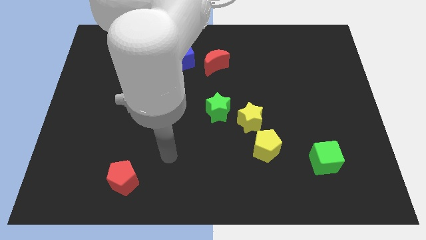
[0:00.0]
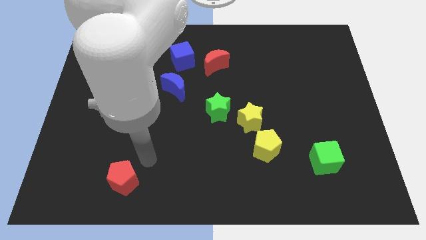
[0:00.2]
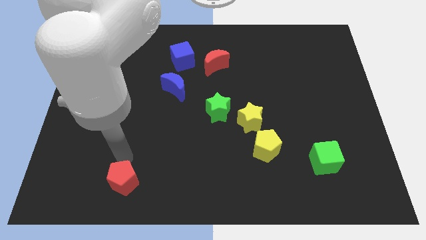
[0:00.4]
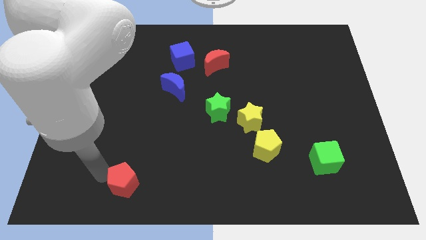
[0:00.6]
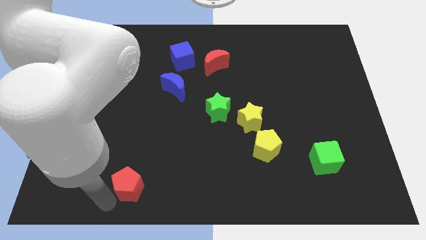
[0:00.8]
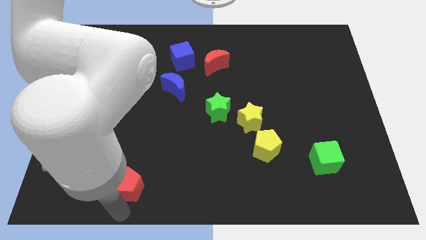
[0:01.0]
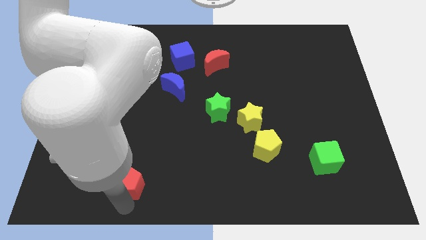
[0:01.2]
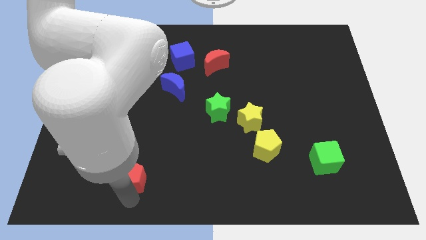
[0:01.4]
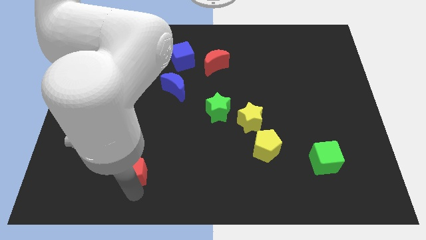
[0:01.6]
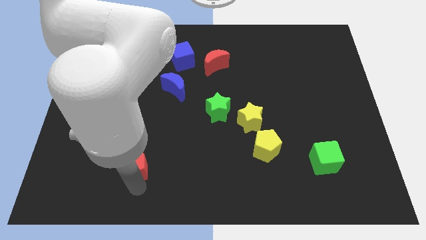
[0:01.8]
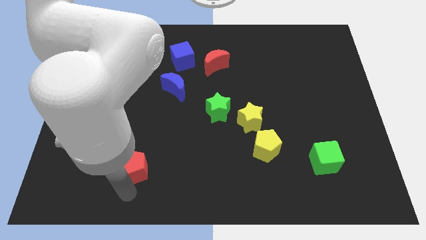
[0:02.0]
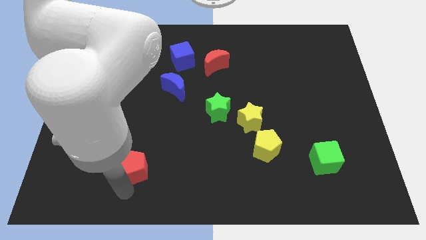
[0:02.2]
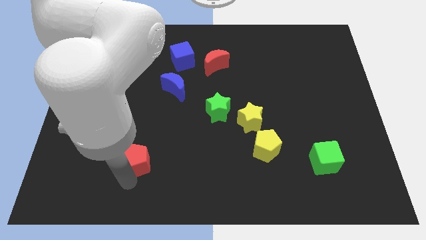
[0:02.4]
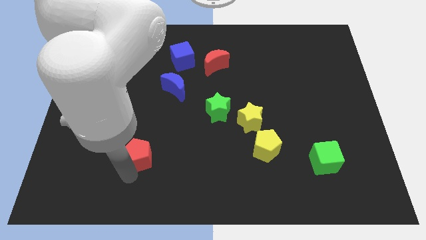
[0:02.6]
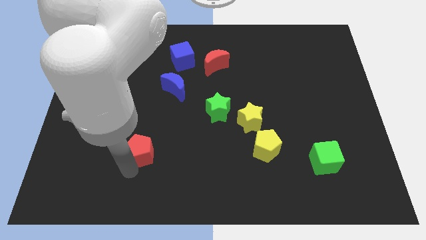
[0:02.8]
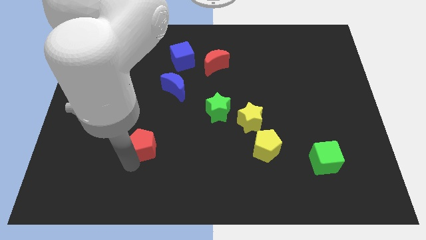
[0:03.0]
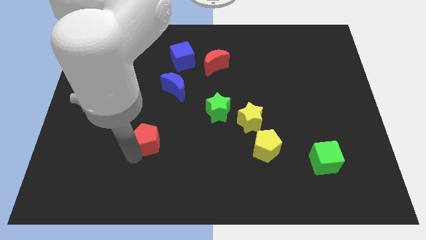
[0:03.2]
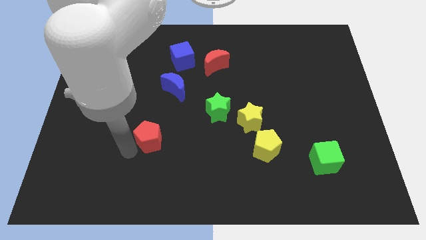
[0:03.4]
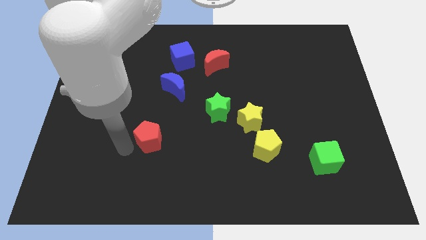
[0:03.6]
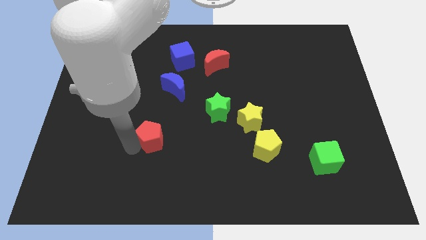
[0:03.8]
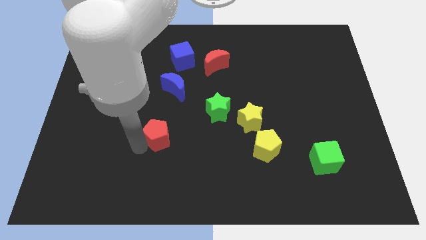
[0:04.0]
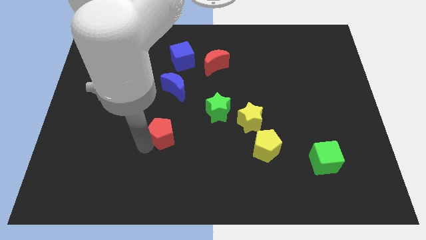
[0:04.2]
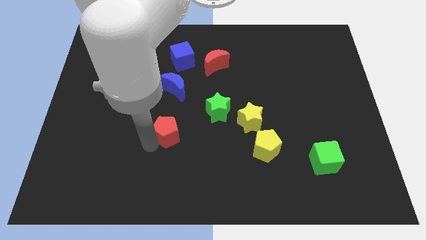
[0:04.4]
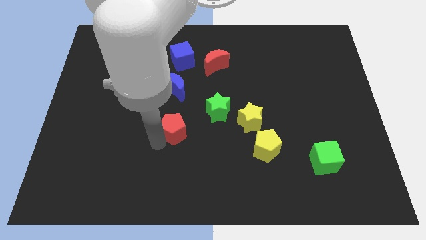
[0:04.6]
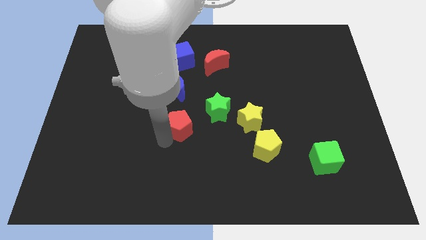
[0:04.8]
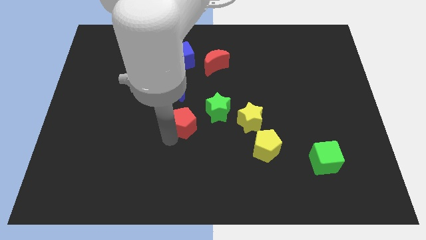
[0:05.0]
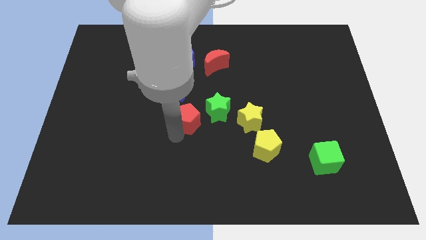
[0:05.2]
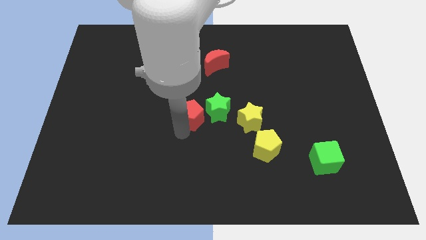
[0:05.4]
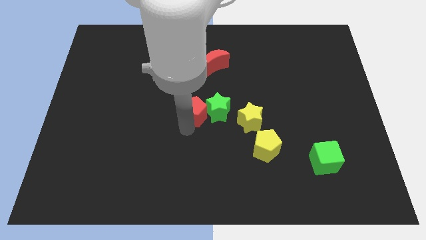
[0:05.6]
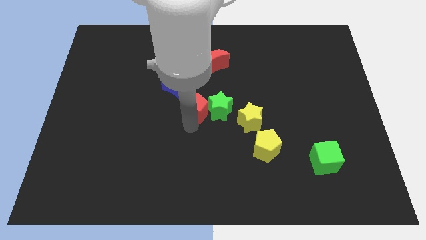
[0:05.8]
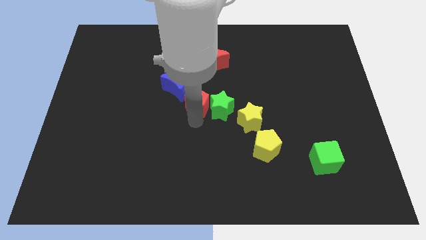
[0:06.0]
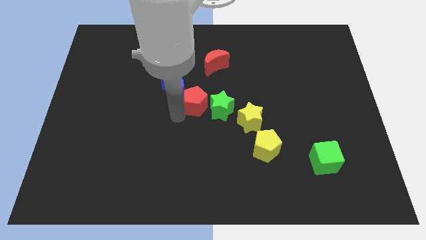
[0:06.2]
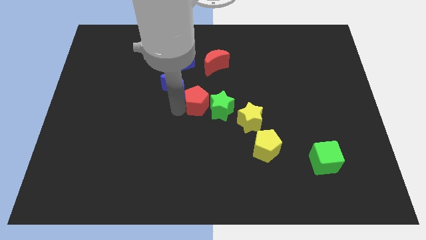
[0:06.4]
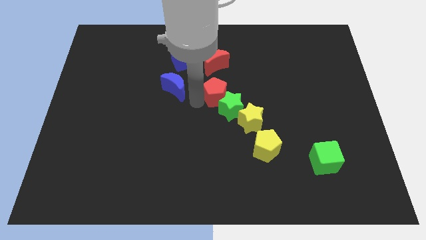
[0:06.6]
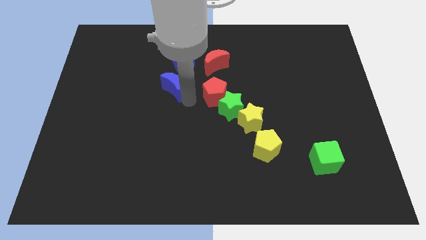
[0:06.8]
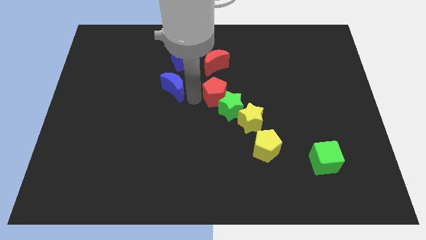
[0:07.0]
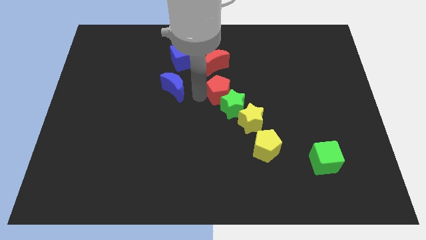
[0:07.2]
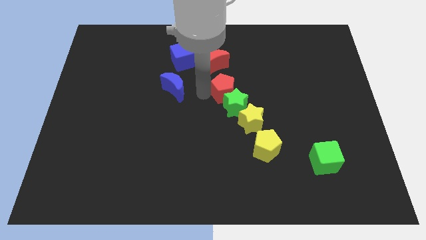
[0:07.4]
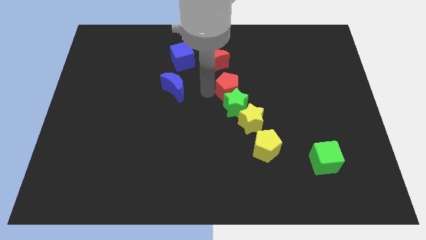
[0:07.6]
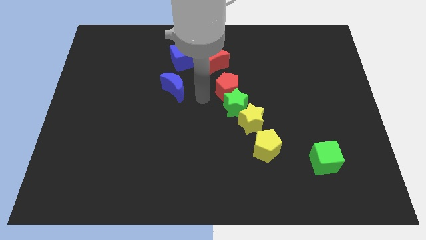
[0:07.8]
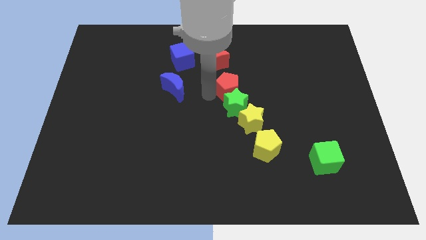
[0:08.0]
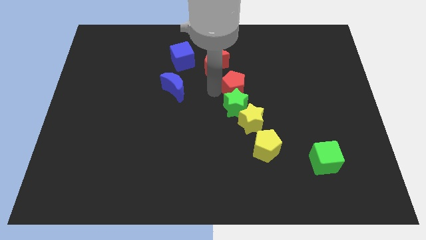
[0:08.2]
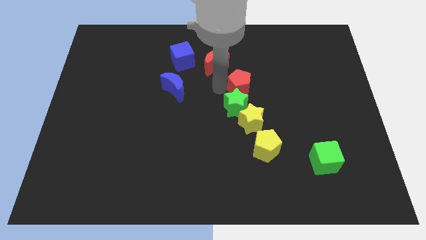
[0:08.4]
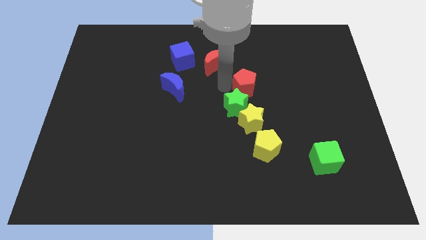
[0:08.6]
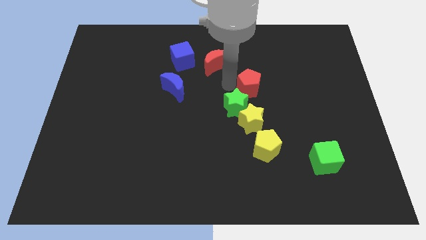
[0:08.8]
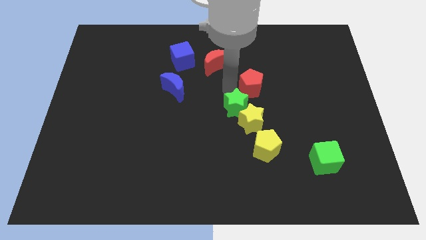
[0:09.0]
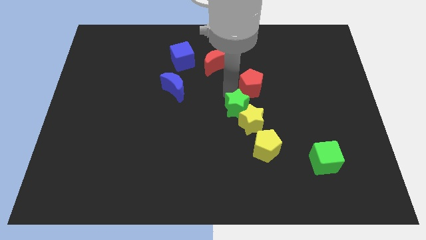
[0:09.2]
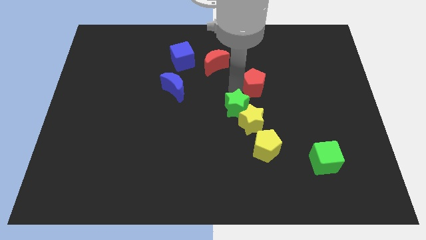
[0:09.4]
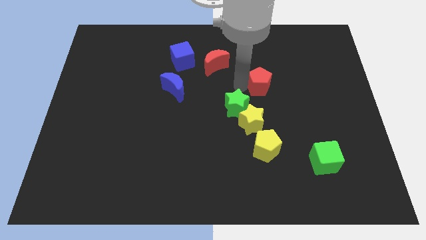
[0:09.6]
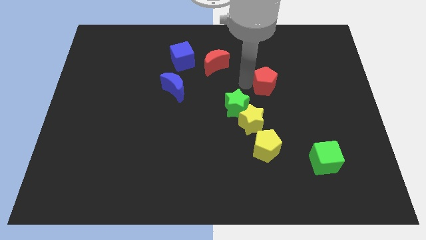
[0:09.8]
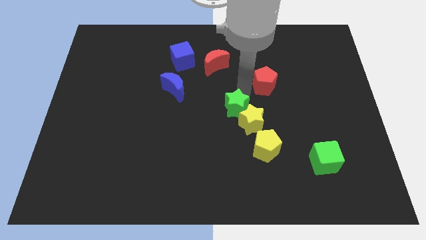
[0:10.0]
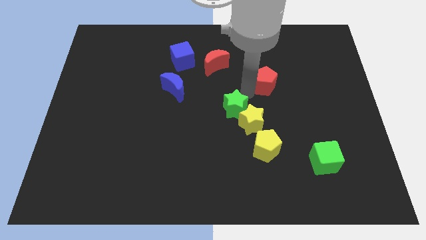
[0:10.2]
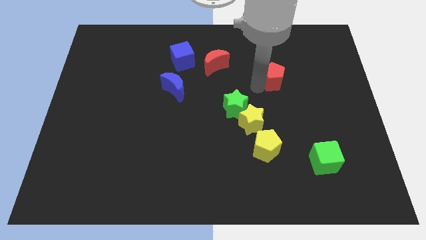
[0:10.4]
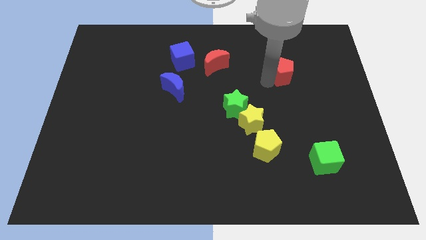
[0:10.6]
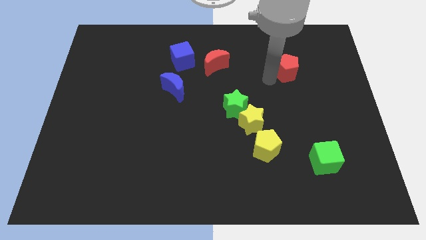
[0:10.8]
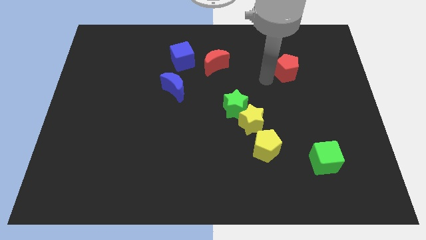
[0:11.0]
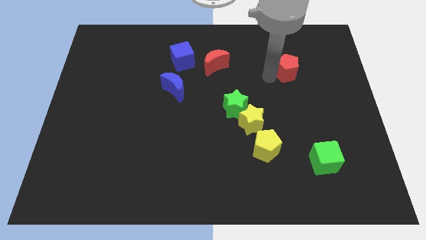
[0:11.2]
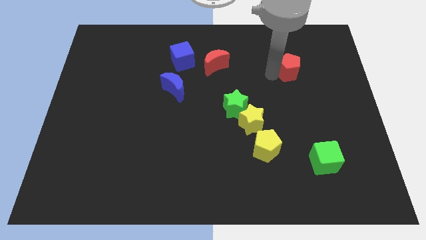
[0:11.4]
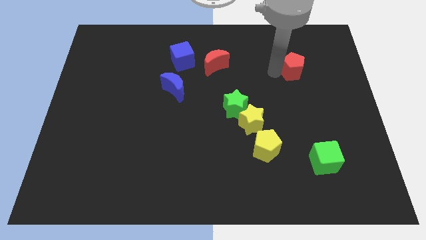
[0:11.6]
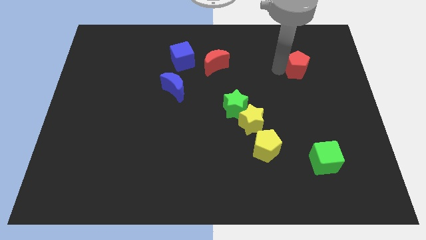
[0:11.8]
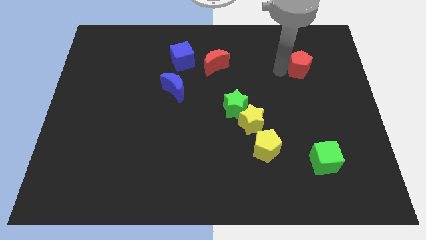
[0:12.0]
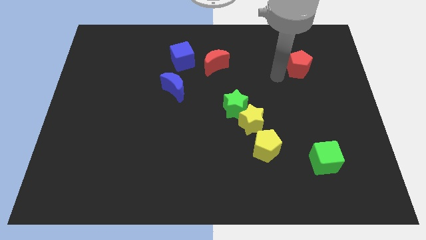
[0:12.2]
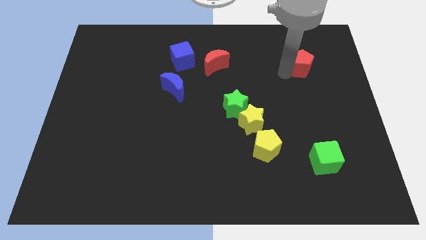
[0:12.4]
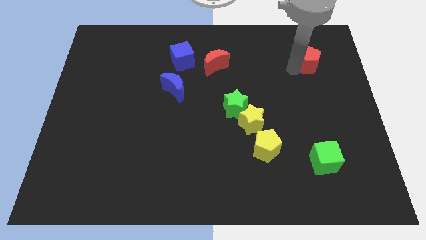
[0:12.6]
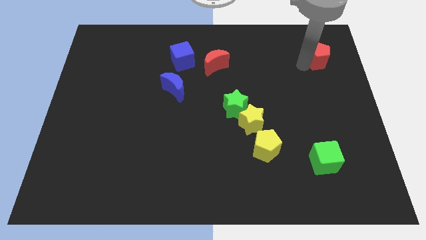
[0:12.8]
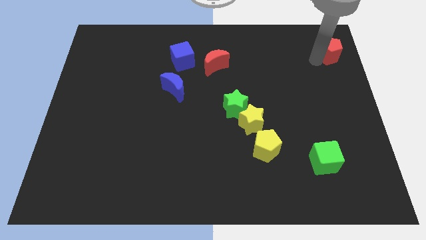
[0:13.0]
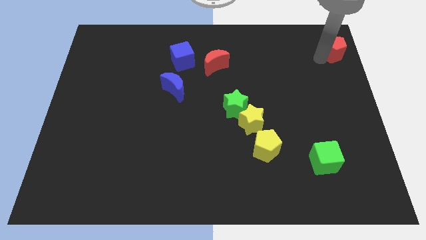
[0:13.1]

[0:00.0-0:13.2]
slide the red pentagon to the top right of the board
